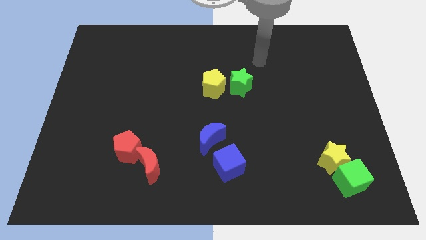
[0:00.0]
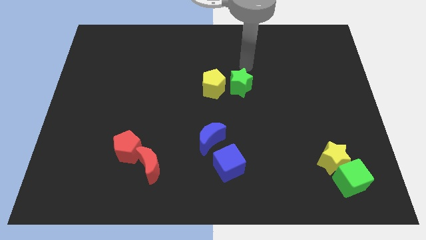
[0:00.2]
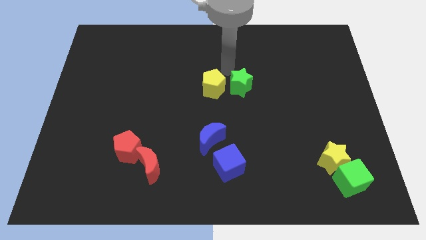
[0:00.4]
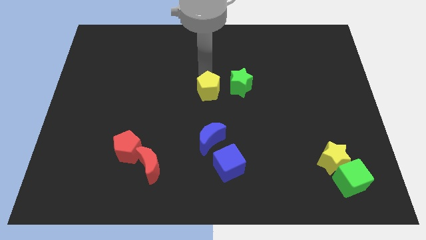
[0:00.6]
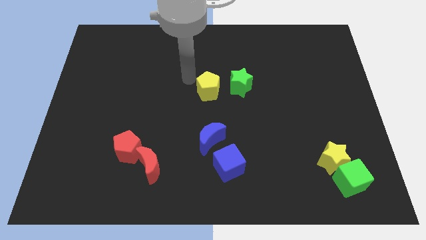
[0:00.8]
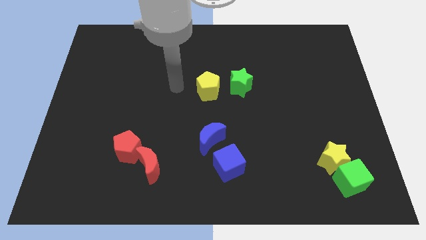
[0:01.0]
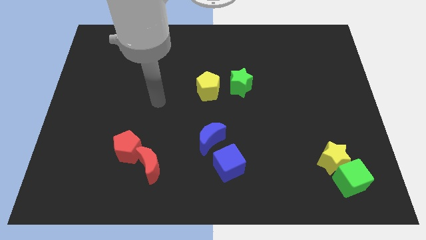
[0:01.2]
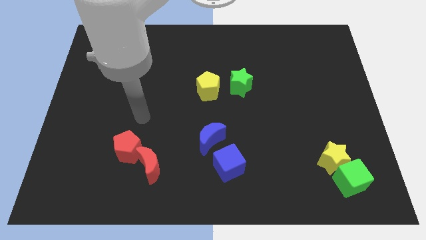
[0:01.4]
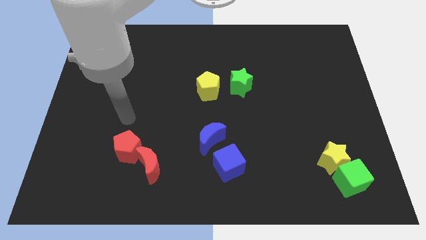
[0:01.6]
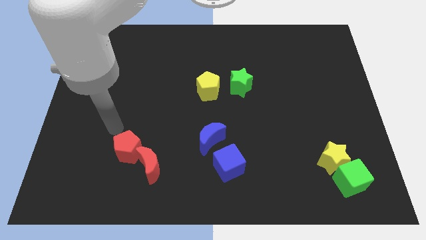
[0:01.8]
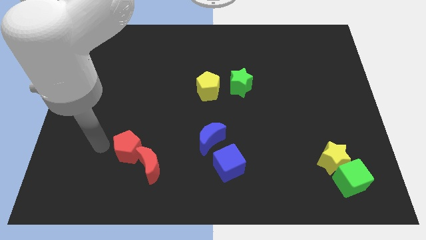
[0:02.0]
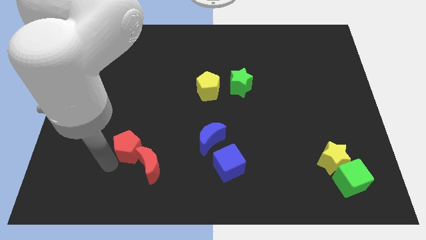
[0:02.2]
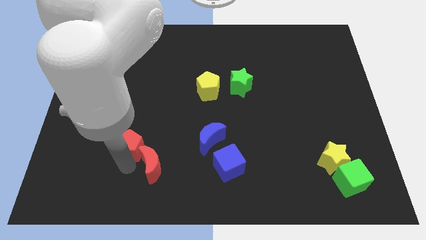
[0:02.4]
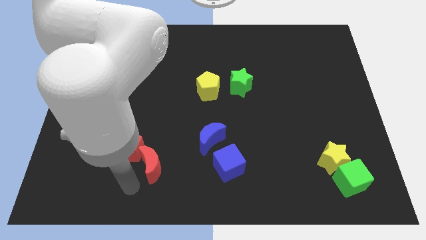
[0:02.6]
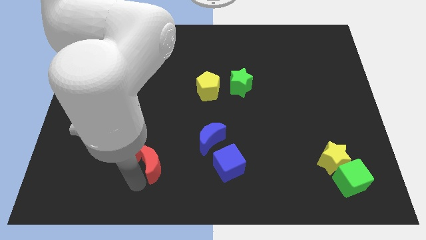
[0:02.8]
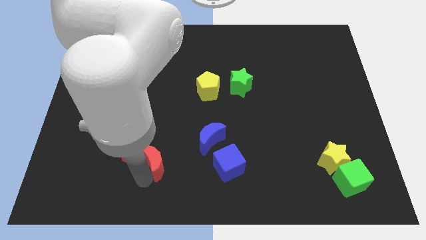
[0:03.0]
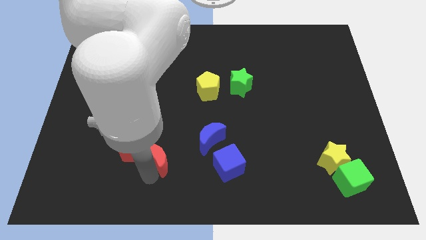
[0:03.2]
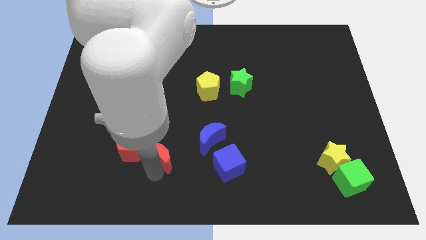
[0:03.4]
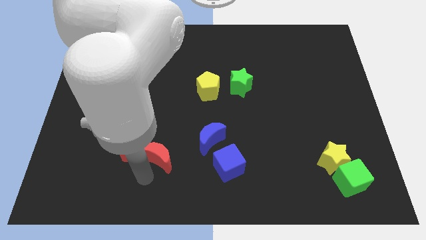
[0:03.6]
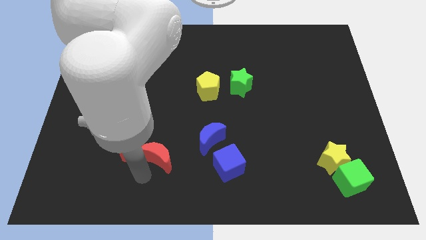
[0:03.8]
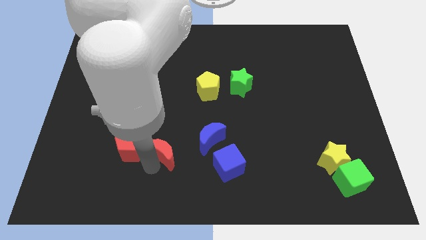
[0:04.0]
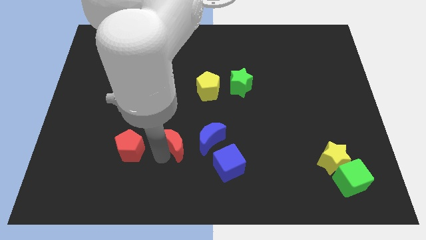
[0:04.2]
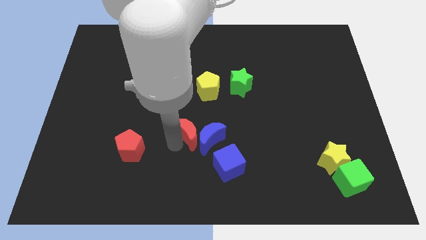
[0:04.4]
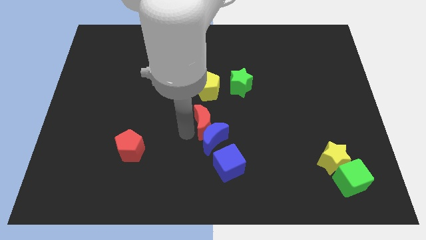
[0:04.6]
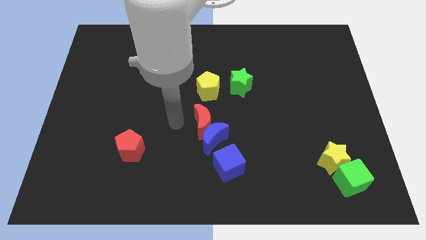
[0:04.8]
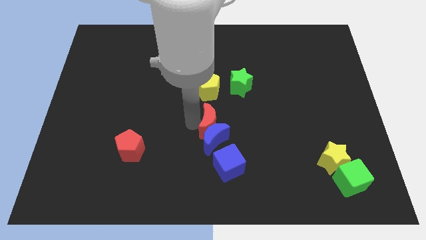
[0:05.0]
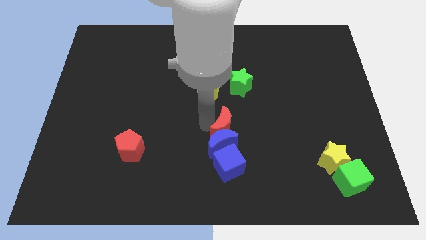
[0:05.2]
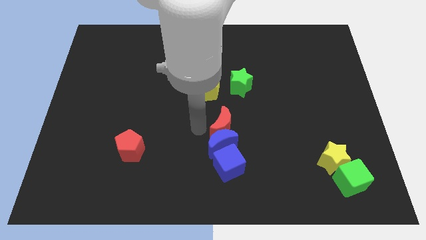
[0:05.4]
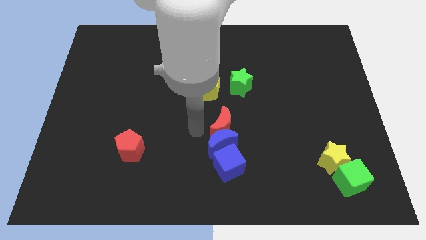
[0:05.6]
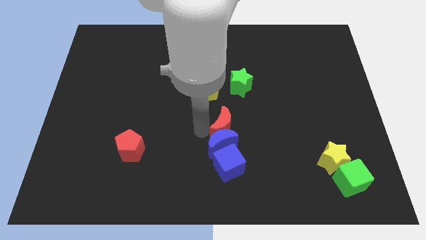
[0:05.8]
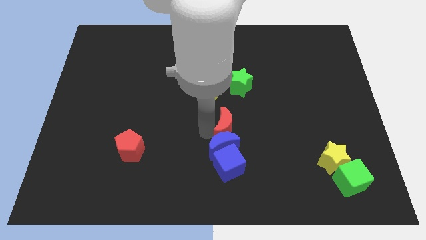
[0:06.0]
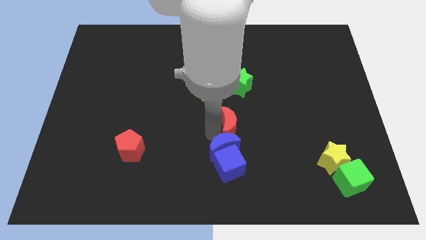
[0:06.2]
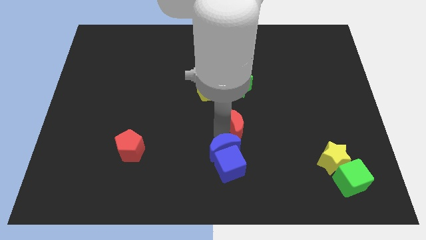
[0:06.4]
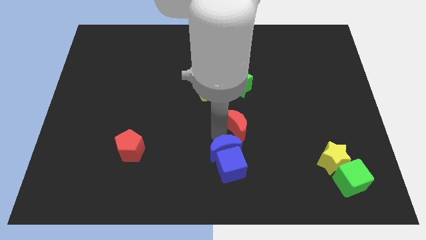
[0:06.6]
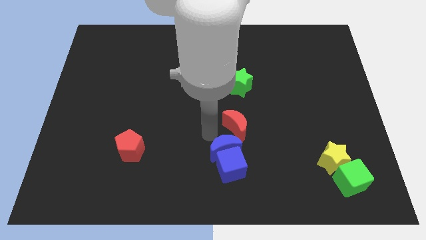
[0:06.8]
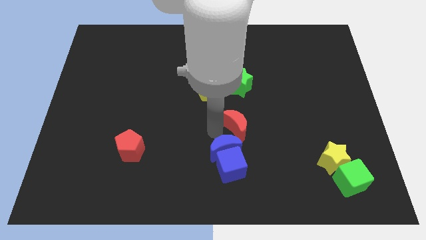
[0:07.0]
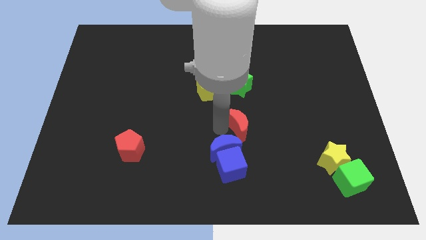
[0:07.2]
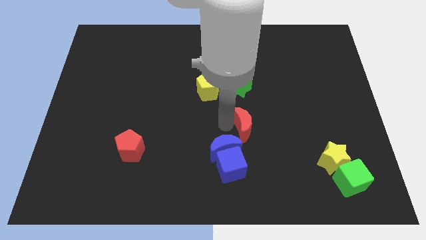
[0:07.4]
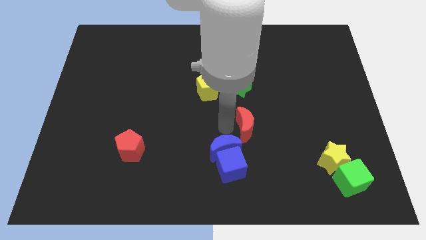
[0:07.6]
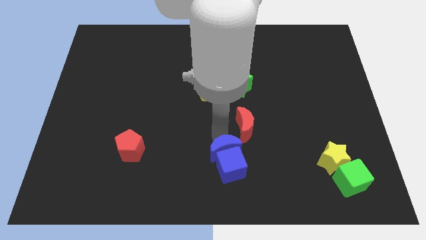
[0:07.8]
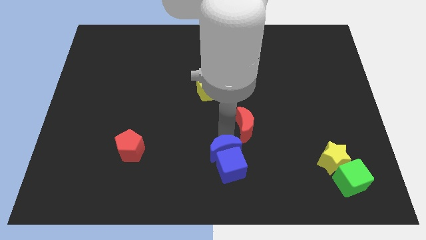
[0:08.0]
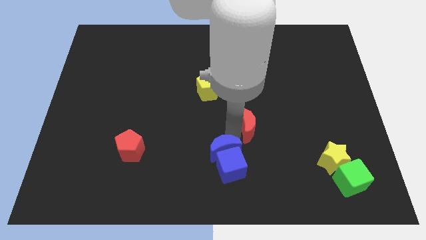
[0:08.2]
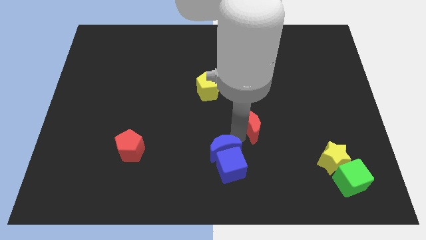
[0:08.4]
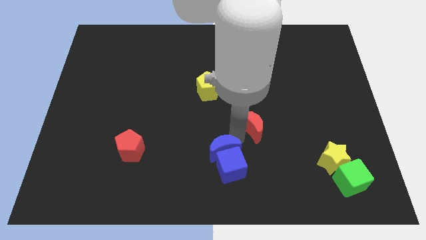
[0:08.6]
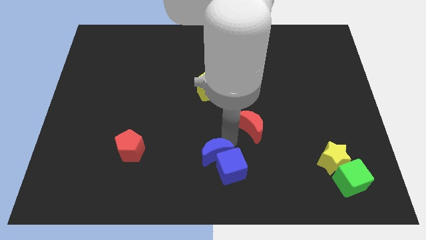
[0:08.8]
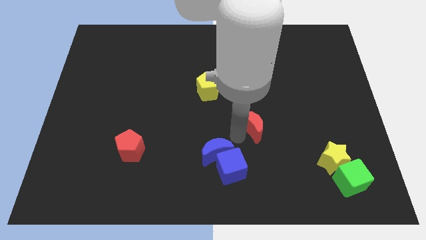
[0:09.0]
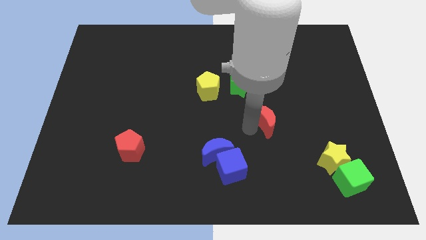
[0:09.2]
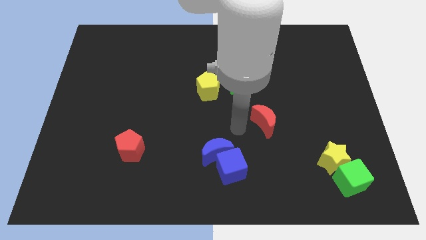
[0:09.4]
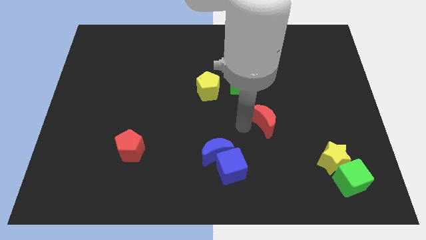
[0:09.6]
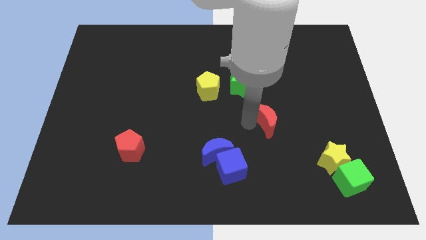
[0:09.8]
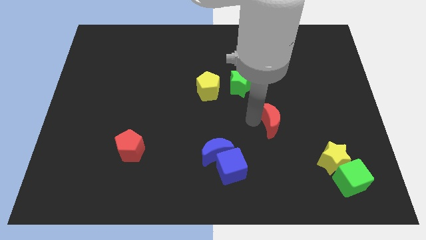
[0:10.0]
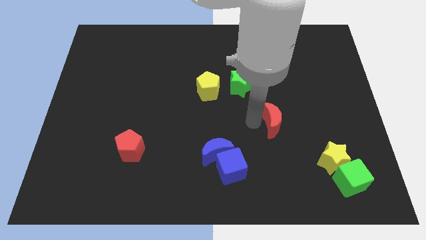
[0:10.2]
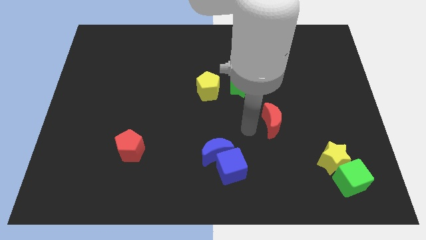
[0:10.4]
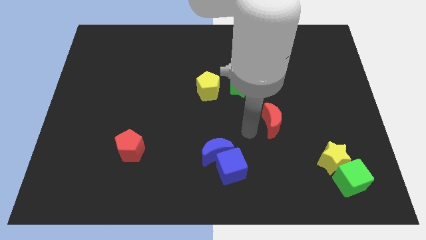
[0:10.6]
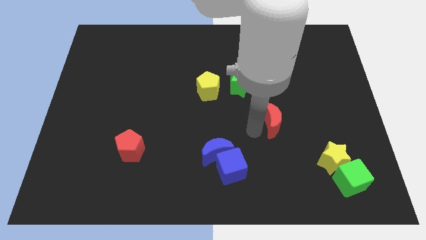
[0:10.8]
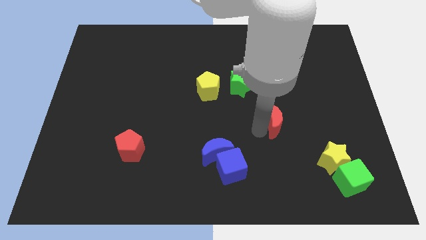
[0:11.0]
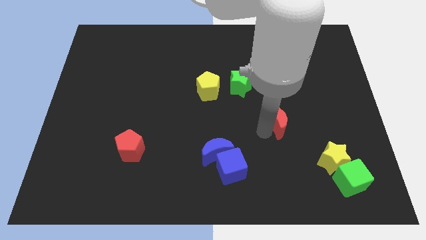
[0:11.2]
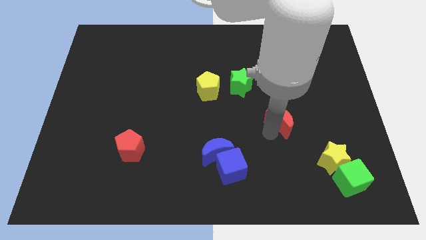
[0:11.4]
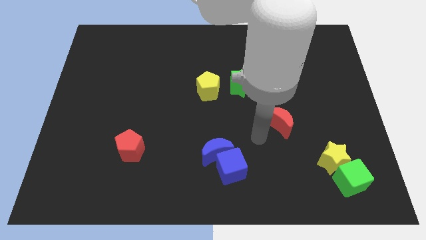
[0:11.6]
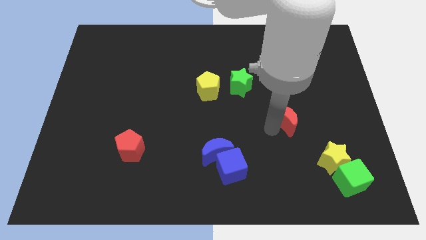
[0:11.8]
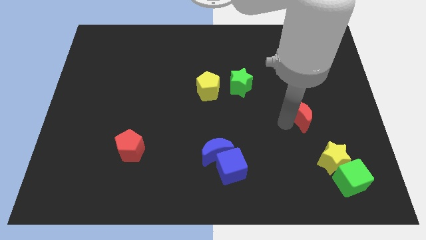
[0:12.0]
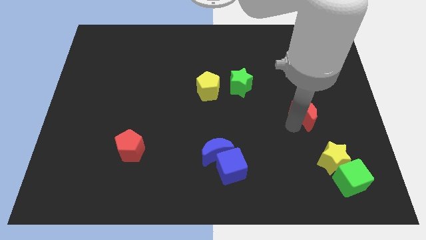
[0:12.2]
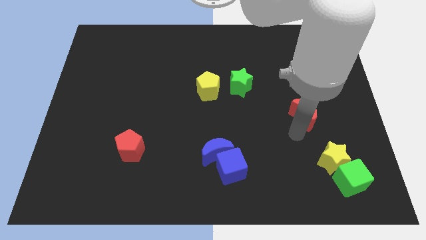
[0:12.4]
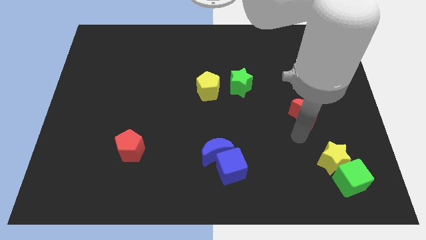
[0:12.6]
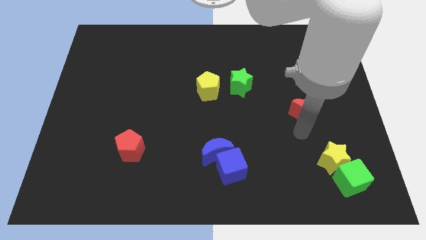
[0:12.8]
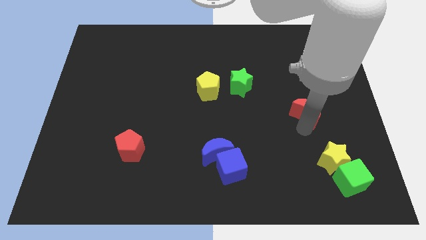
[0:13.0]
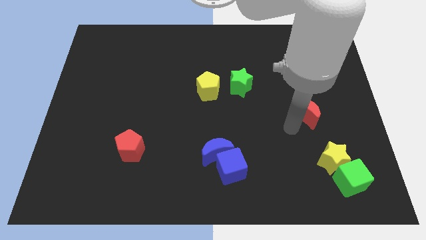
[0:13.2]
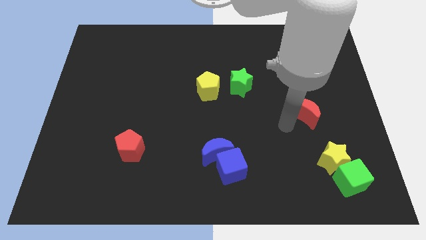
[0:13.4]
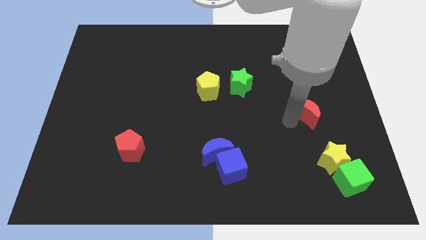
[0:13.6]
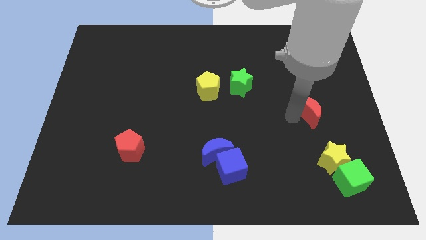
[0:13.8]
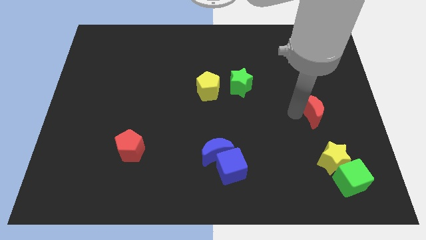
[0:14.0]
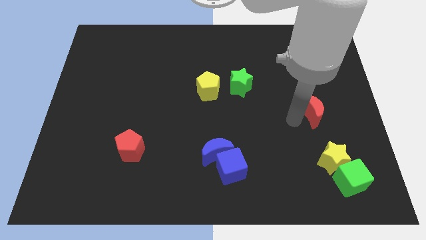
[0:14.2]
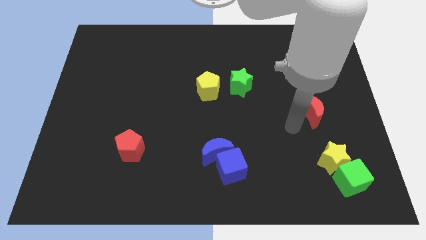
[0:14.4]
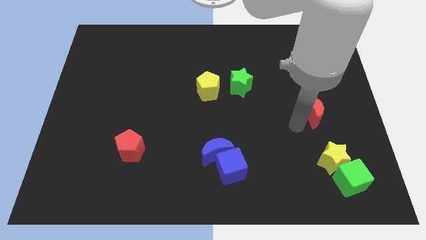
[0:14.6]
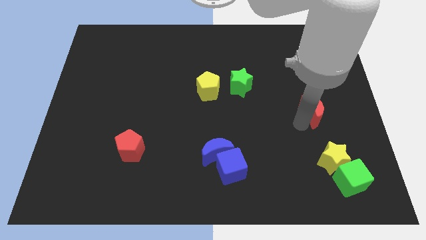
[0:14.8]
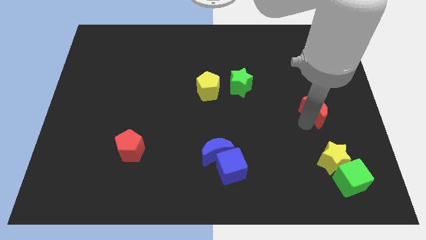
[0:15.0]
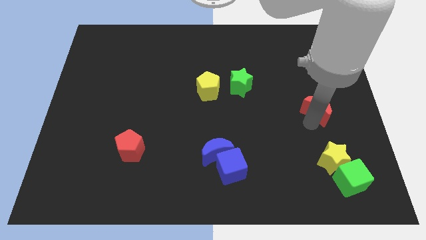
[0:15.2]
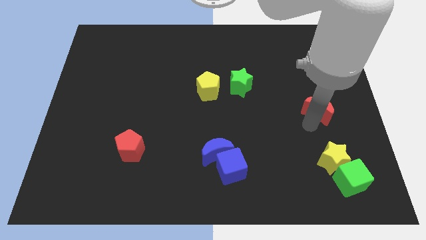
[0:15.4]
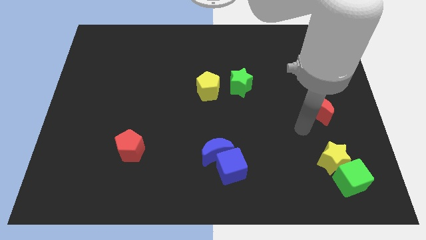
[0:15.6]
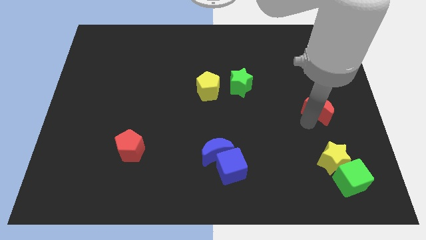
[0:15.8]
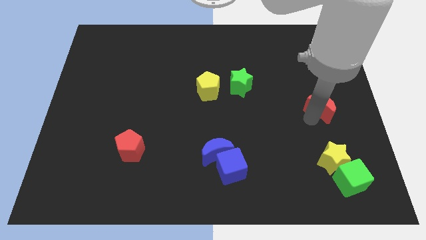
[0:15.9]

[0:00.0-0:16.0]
put the red moon to the right side of the board
